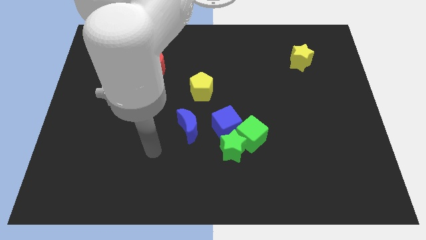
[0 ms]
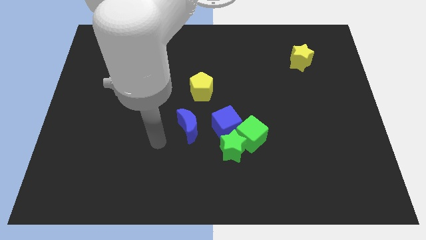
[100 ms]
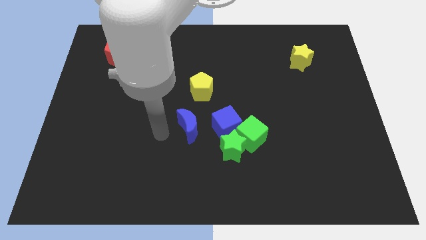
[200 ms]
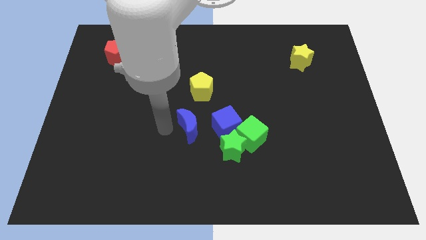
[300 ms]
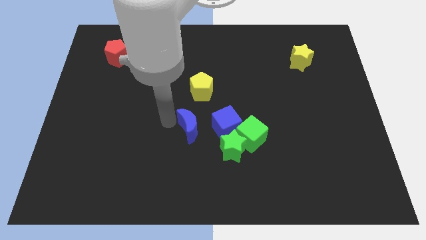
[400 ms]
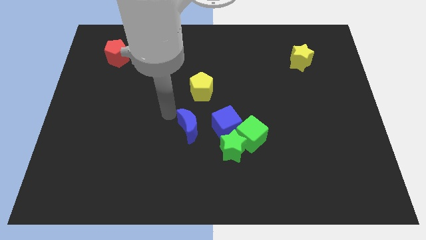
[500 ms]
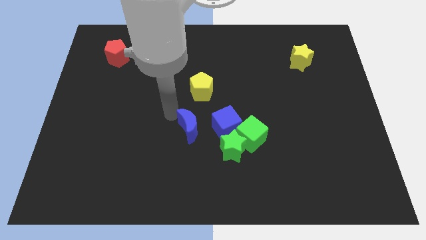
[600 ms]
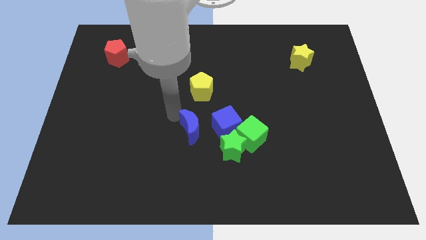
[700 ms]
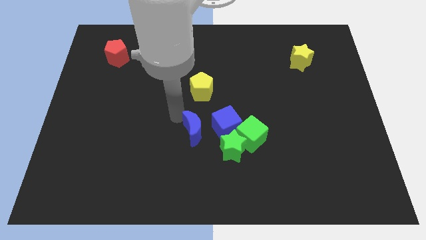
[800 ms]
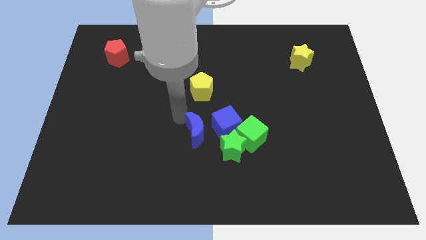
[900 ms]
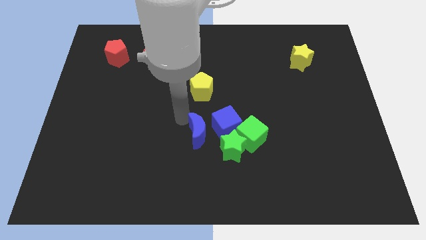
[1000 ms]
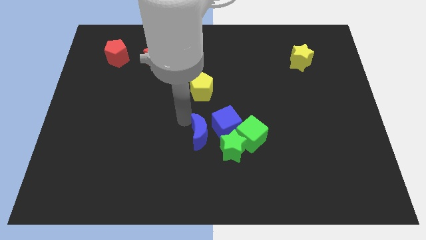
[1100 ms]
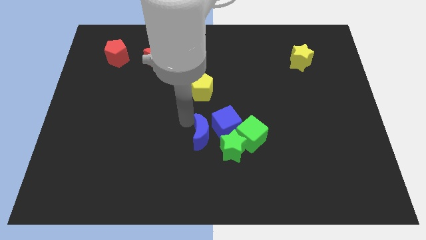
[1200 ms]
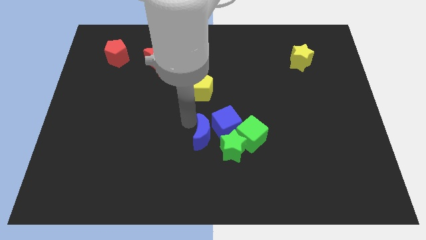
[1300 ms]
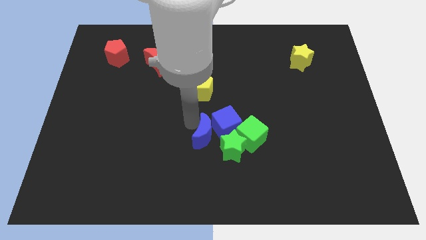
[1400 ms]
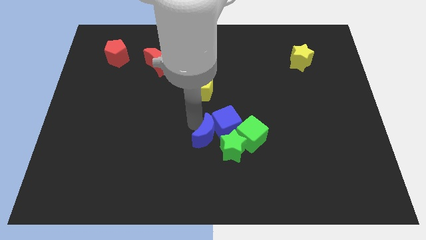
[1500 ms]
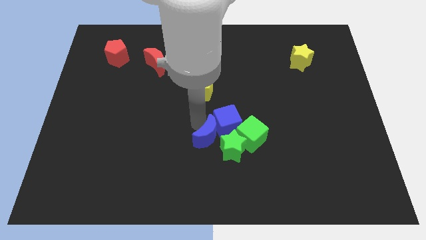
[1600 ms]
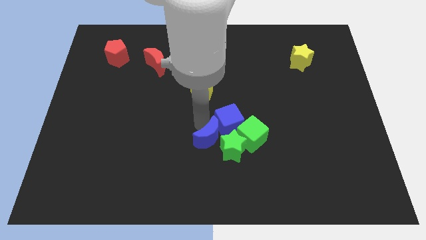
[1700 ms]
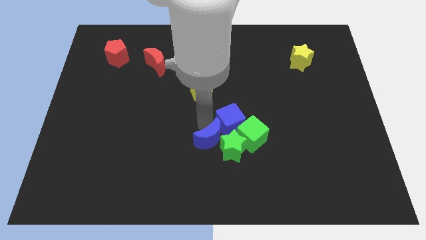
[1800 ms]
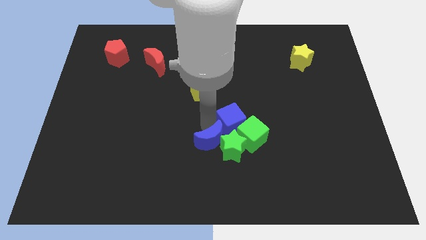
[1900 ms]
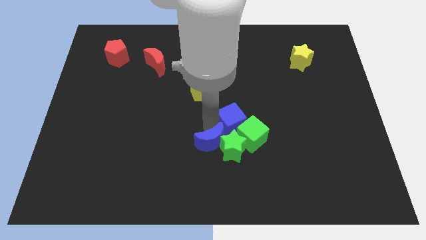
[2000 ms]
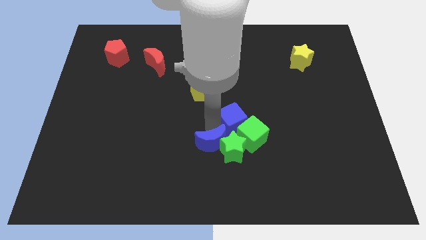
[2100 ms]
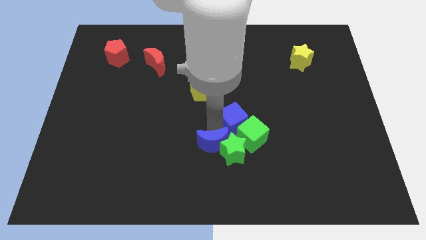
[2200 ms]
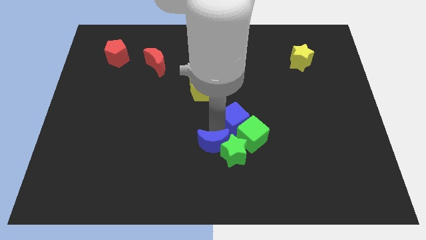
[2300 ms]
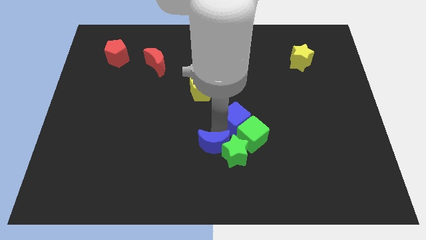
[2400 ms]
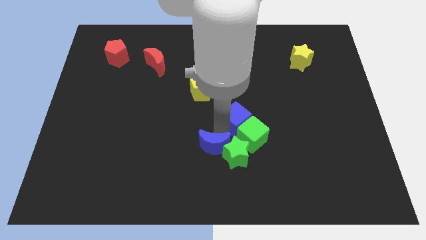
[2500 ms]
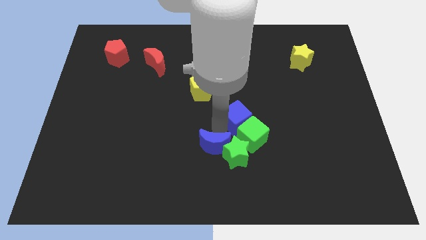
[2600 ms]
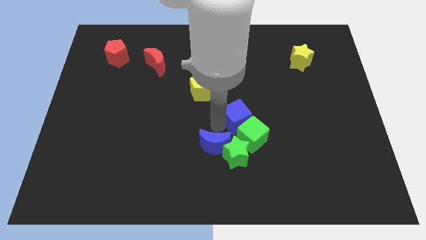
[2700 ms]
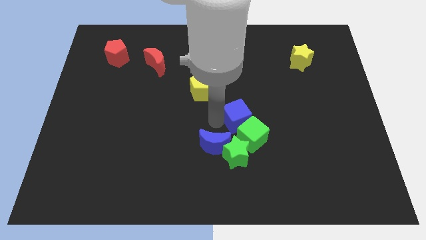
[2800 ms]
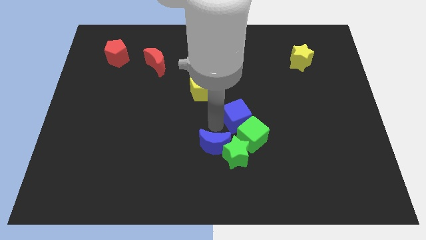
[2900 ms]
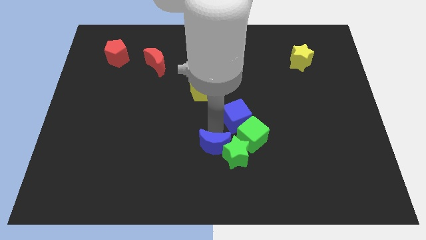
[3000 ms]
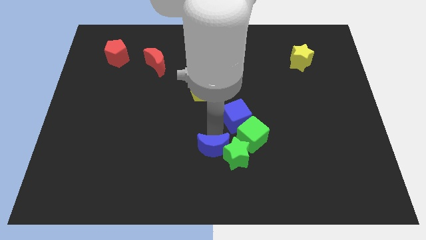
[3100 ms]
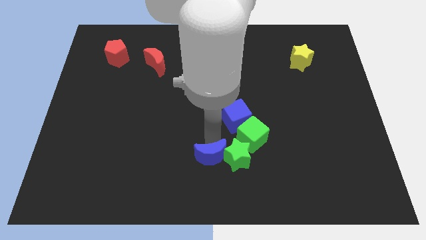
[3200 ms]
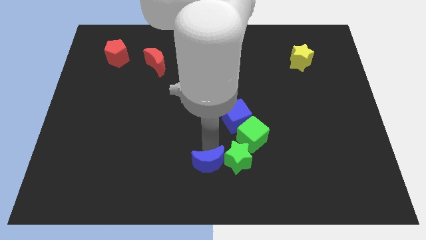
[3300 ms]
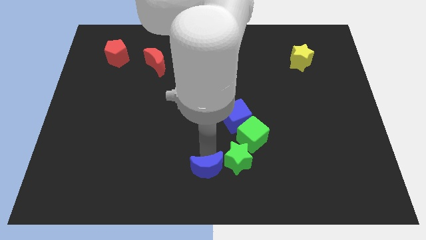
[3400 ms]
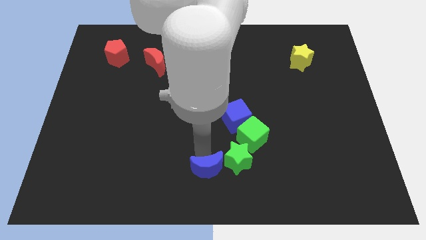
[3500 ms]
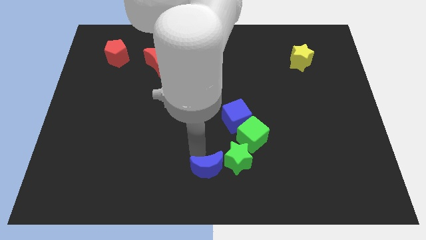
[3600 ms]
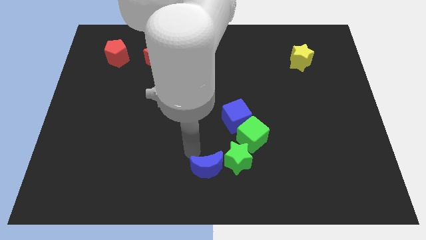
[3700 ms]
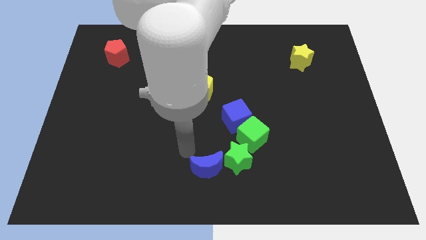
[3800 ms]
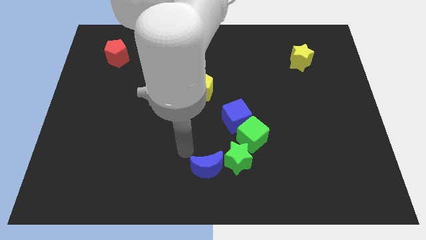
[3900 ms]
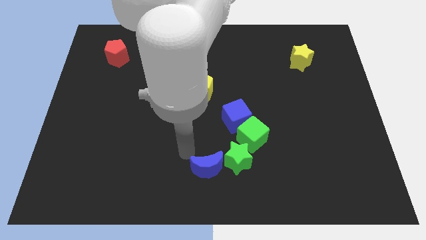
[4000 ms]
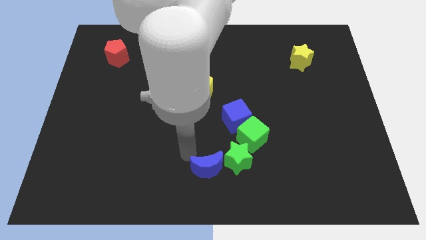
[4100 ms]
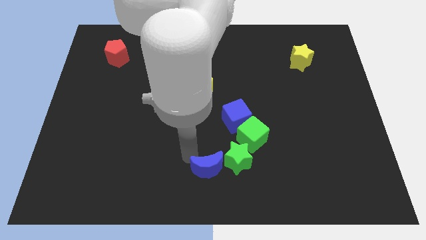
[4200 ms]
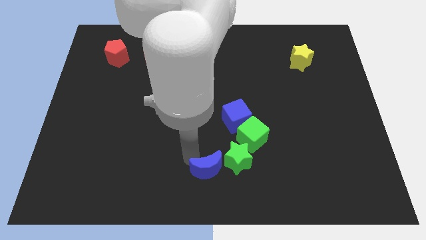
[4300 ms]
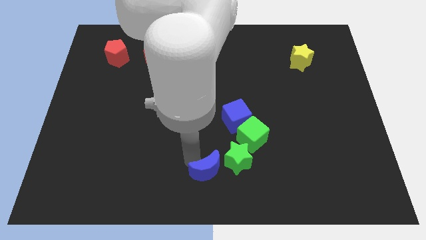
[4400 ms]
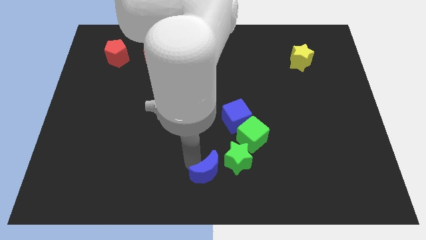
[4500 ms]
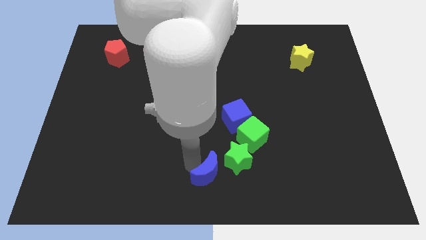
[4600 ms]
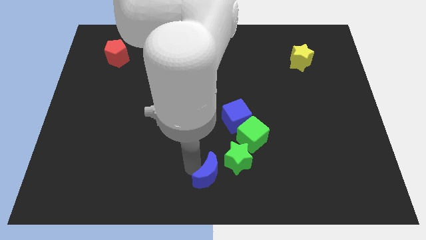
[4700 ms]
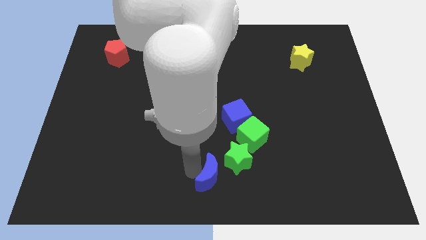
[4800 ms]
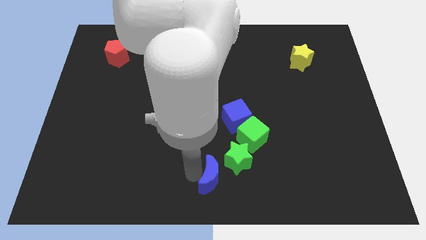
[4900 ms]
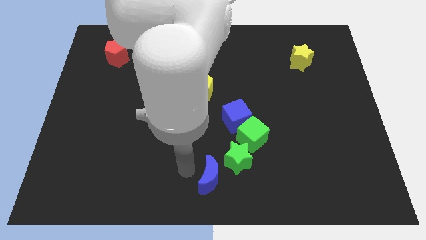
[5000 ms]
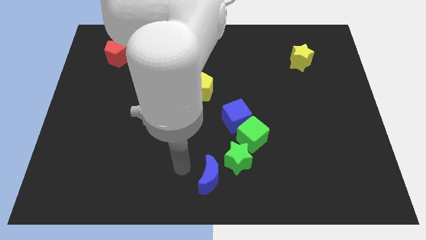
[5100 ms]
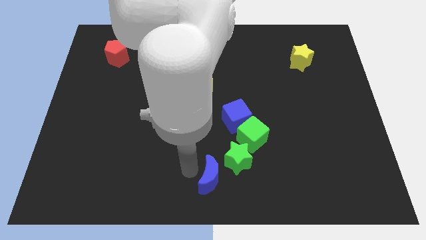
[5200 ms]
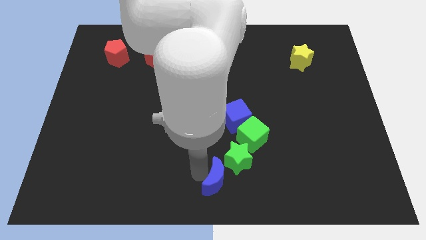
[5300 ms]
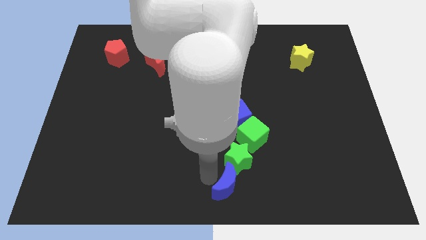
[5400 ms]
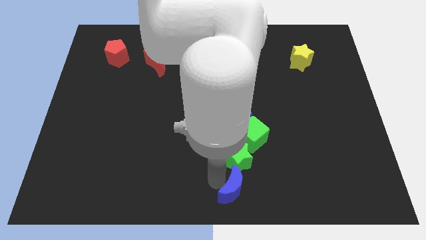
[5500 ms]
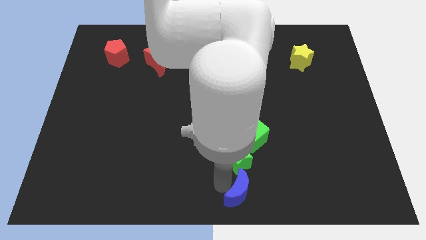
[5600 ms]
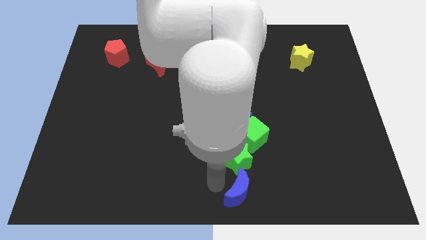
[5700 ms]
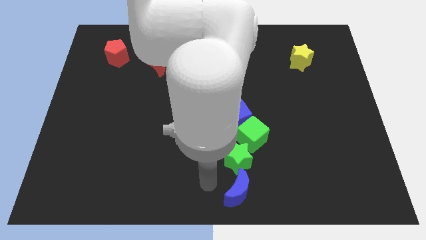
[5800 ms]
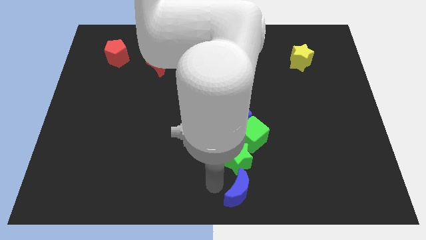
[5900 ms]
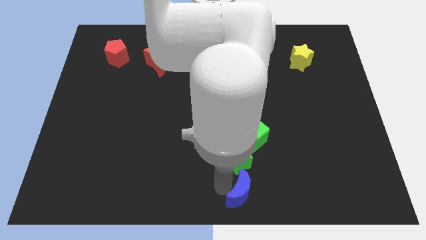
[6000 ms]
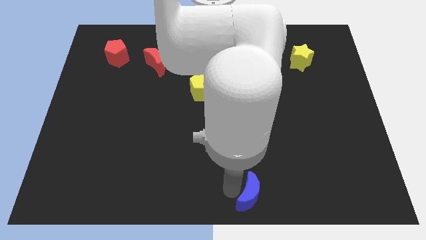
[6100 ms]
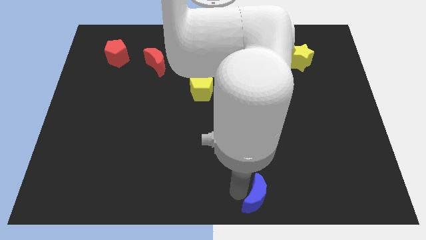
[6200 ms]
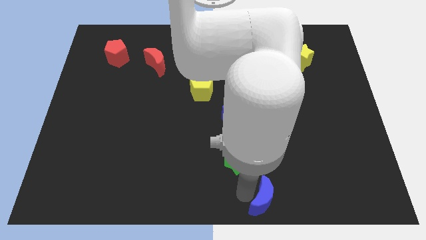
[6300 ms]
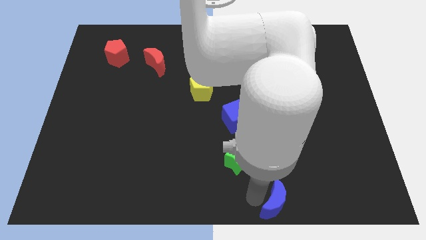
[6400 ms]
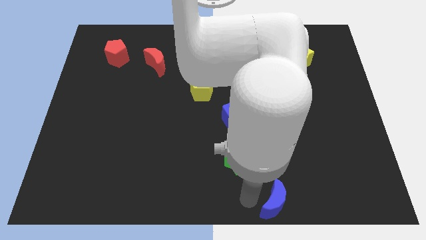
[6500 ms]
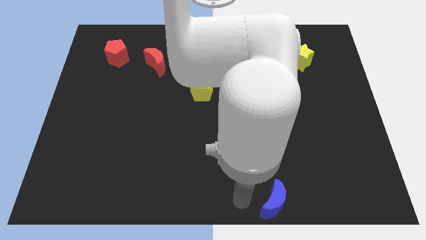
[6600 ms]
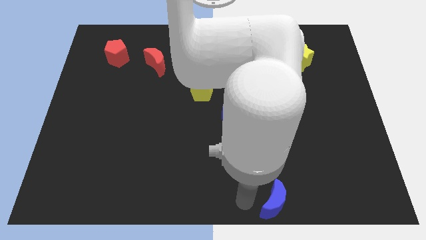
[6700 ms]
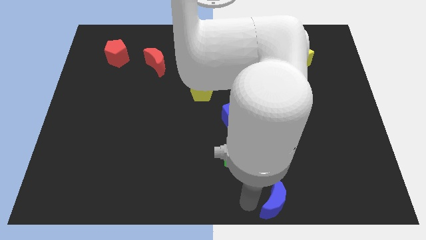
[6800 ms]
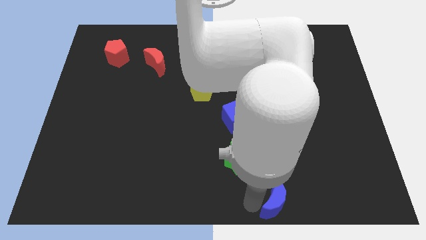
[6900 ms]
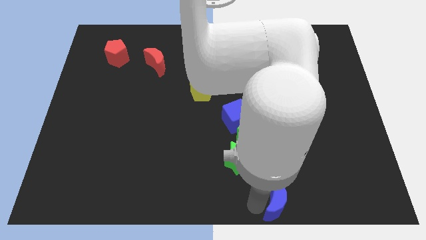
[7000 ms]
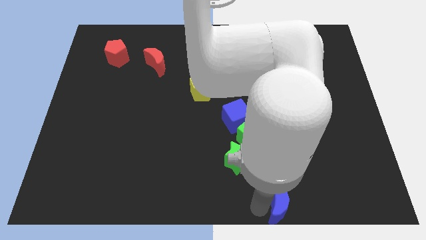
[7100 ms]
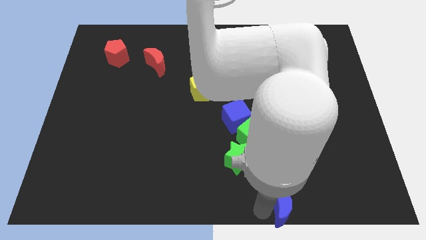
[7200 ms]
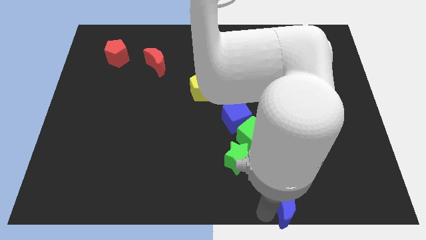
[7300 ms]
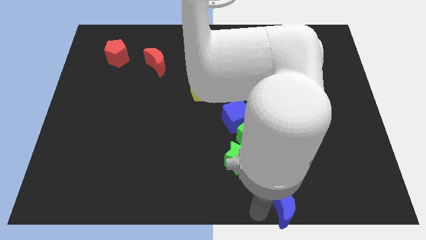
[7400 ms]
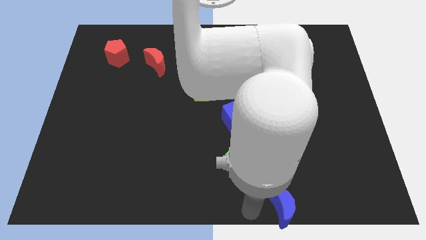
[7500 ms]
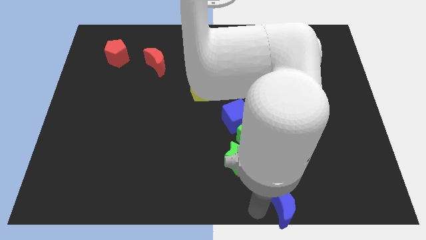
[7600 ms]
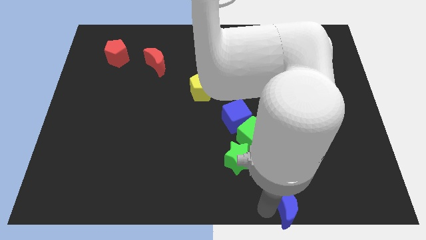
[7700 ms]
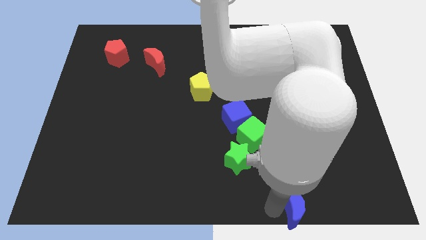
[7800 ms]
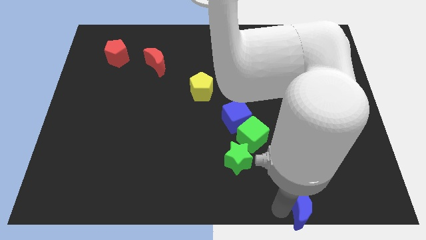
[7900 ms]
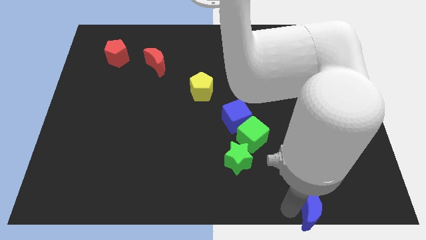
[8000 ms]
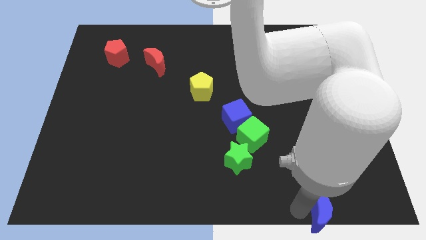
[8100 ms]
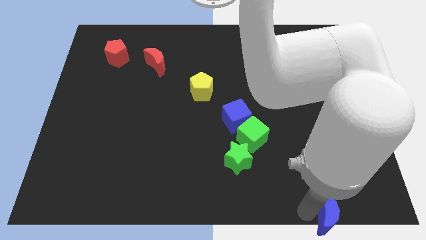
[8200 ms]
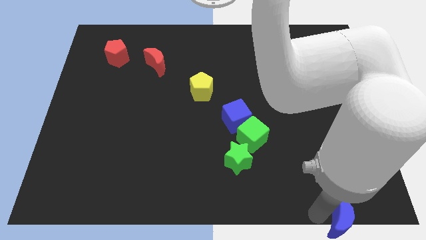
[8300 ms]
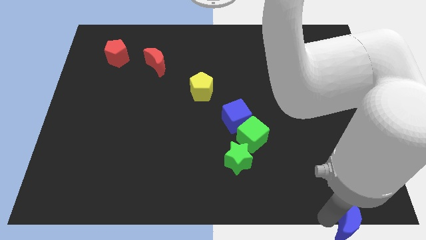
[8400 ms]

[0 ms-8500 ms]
move the blue moon to the bottom right of the board
